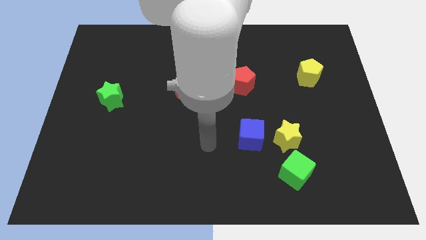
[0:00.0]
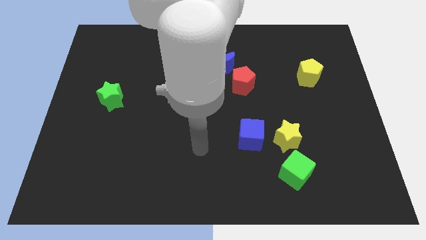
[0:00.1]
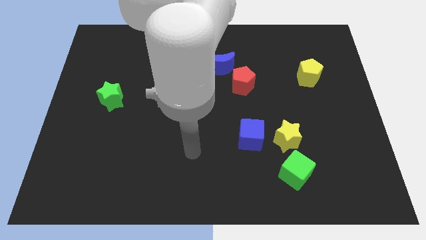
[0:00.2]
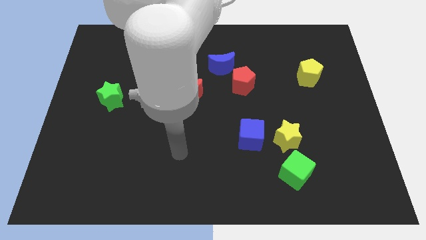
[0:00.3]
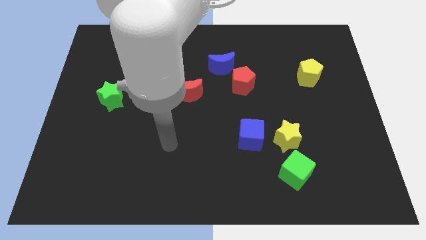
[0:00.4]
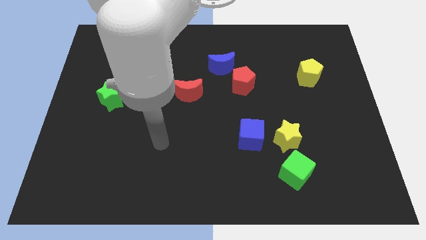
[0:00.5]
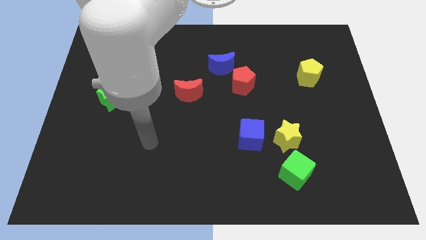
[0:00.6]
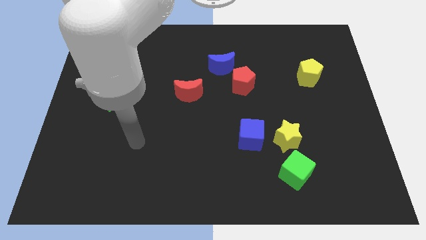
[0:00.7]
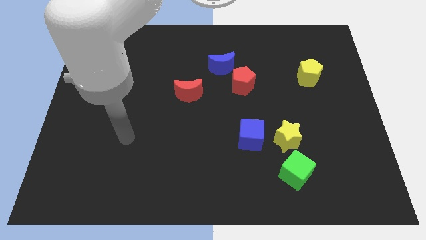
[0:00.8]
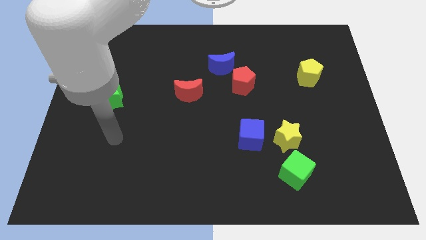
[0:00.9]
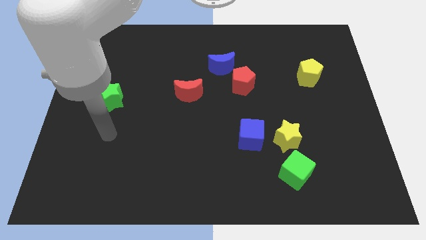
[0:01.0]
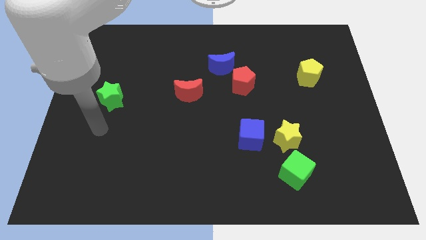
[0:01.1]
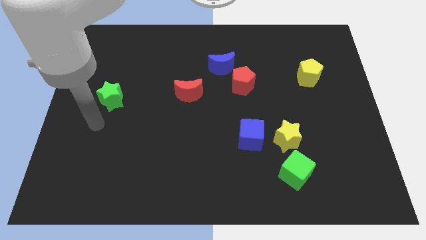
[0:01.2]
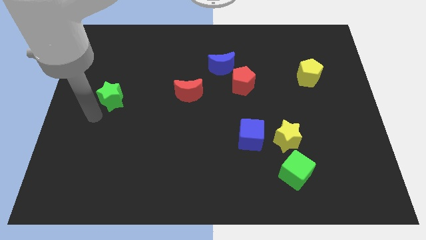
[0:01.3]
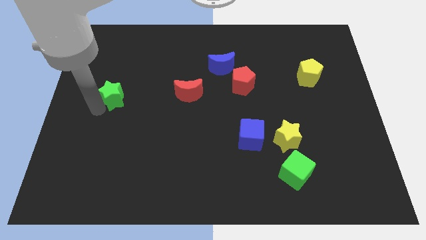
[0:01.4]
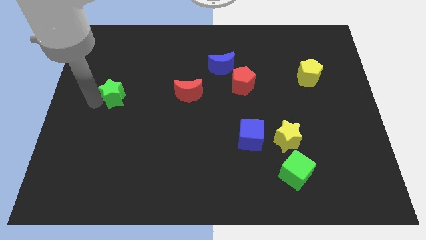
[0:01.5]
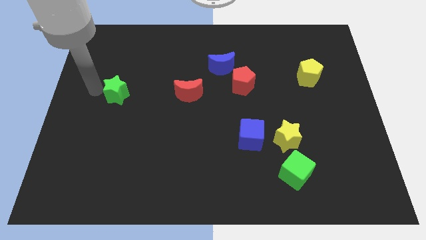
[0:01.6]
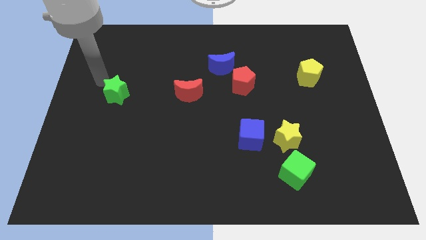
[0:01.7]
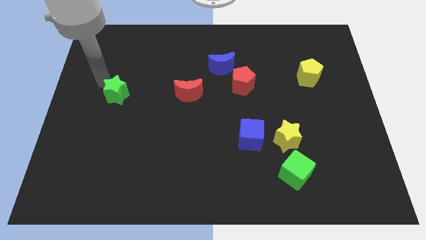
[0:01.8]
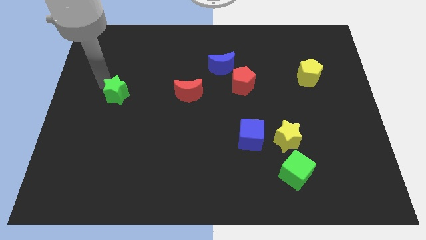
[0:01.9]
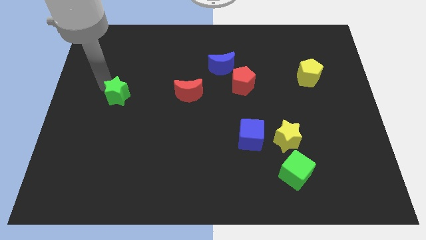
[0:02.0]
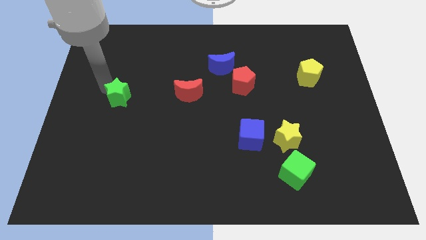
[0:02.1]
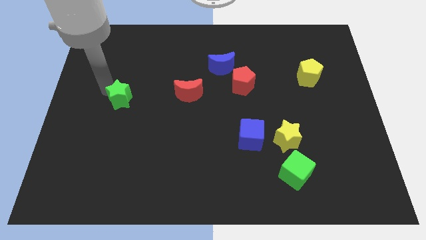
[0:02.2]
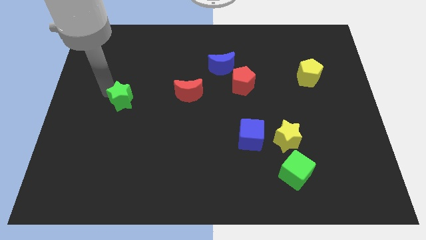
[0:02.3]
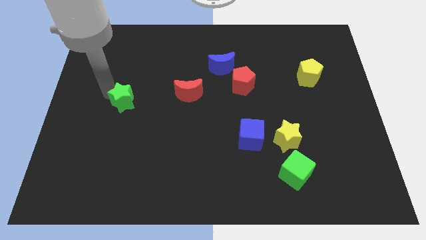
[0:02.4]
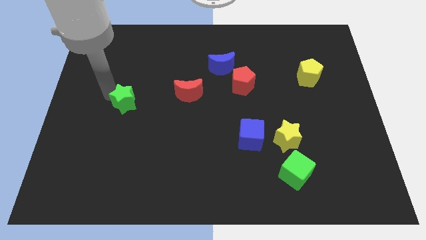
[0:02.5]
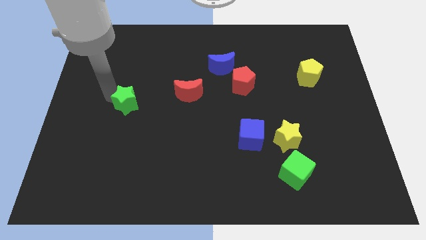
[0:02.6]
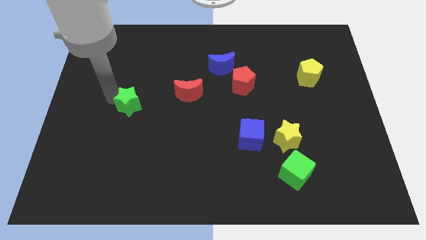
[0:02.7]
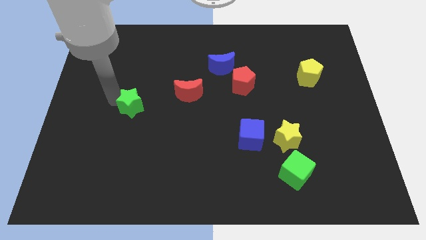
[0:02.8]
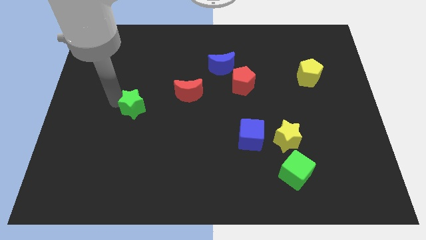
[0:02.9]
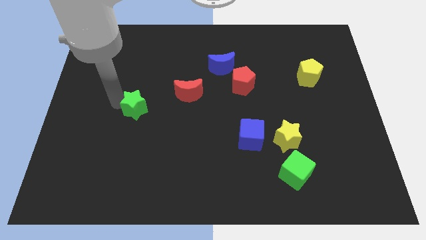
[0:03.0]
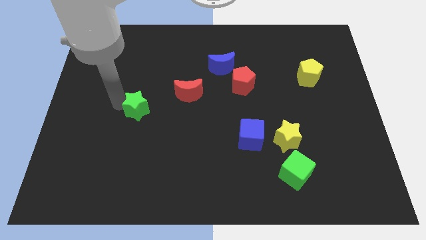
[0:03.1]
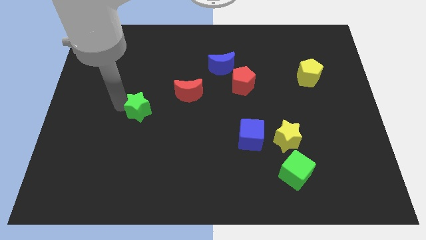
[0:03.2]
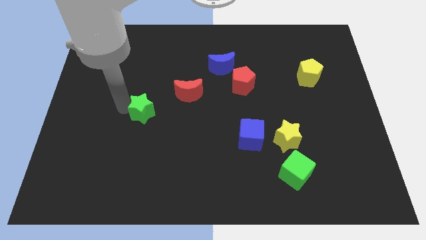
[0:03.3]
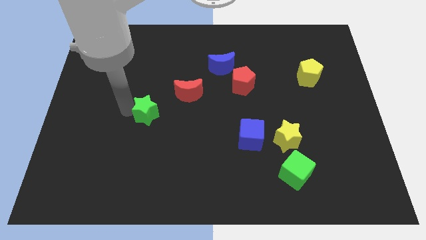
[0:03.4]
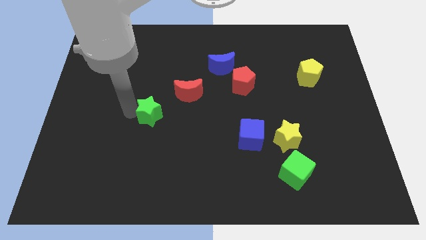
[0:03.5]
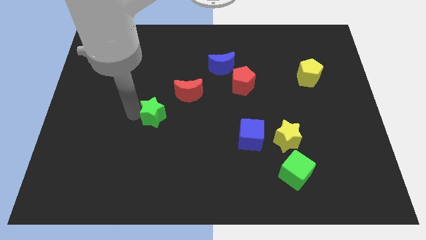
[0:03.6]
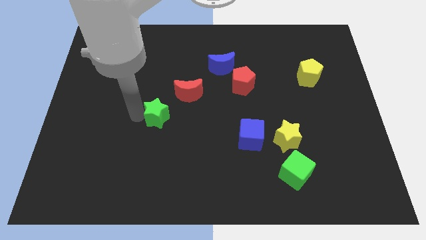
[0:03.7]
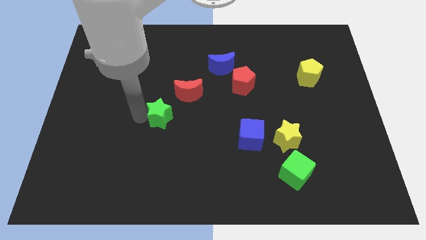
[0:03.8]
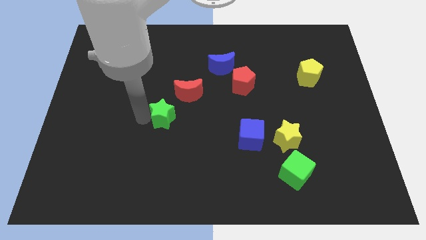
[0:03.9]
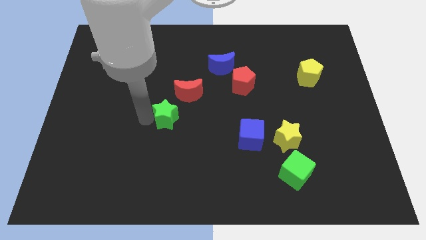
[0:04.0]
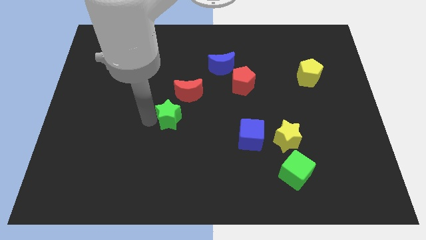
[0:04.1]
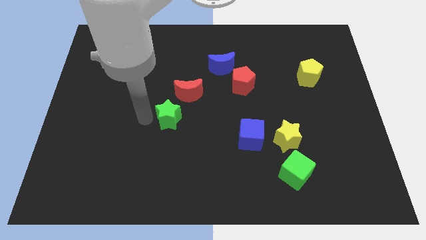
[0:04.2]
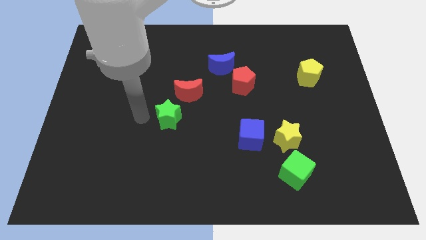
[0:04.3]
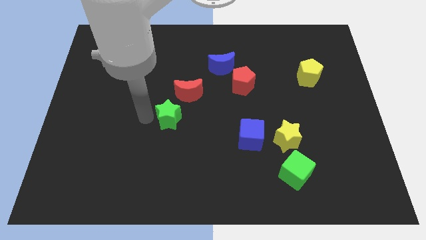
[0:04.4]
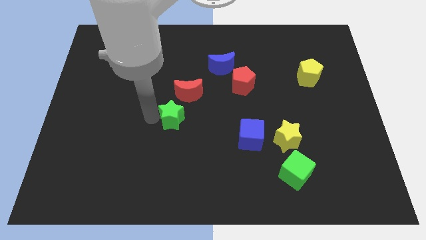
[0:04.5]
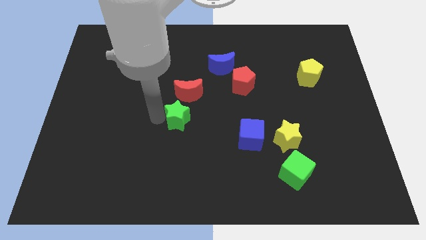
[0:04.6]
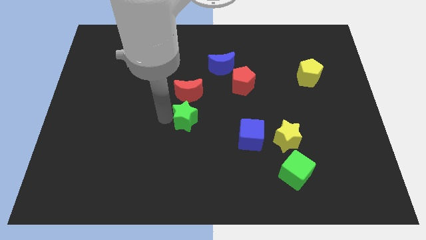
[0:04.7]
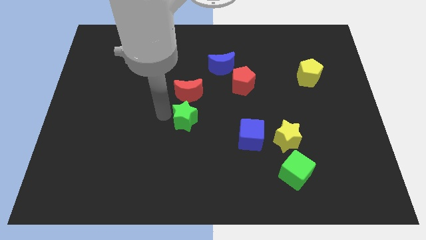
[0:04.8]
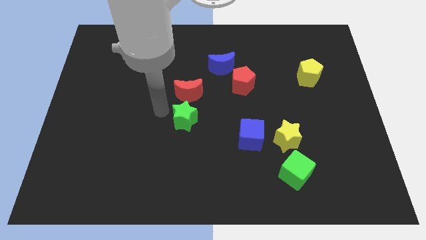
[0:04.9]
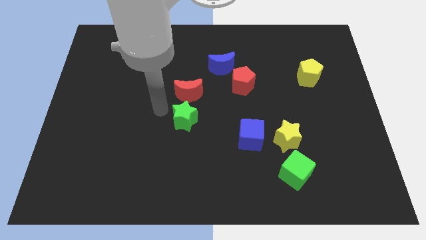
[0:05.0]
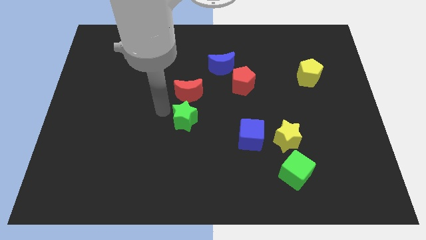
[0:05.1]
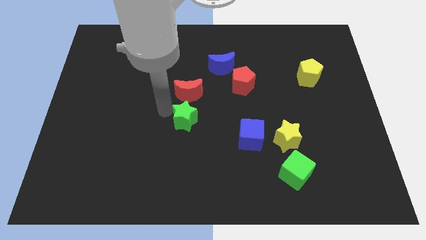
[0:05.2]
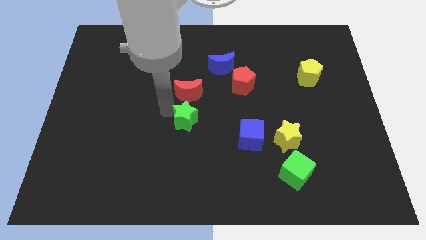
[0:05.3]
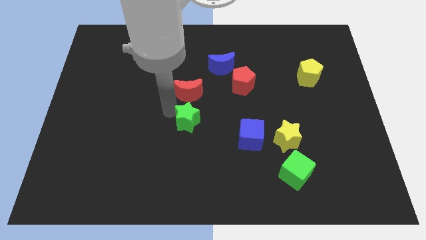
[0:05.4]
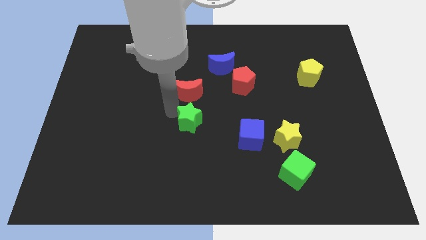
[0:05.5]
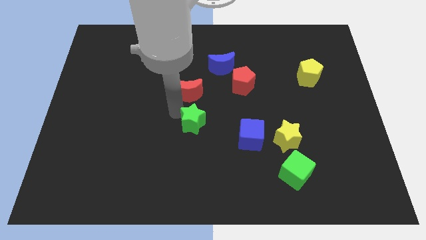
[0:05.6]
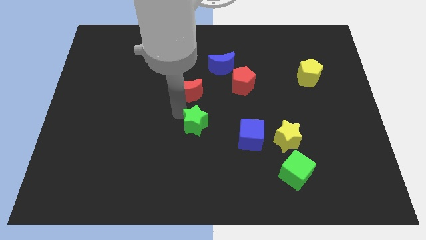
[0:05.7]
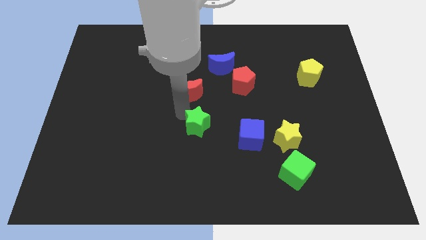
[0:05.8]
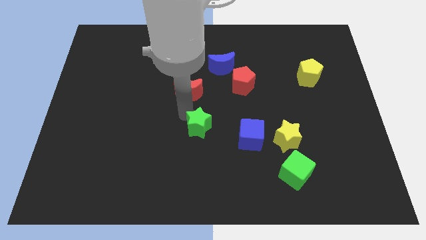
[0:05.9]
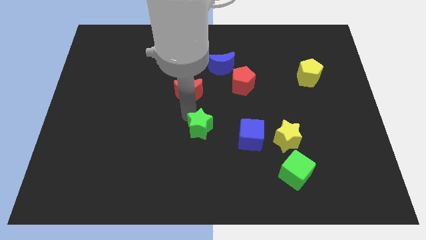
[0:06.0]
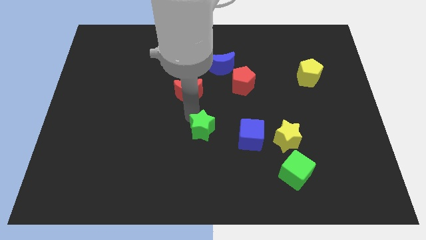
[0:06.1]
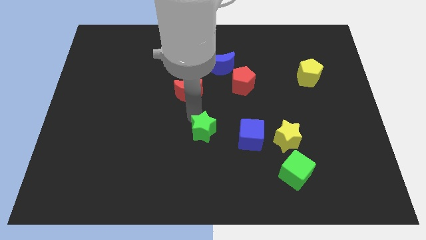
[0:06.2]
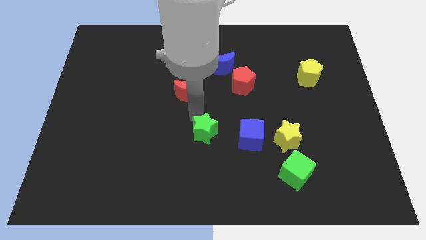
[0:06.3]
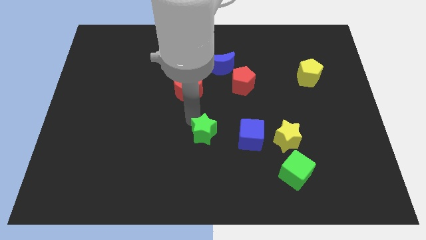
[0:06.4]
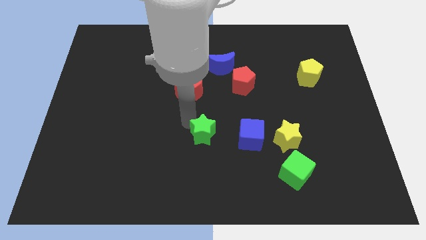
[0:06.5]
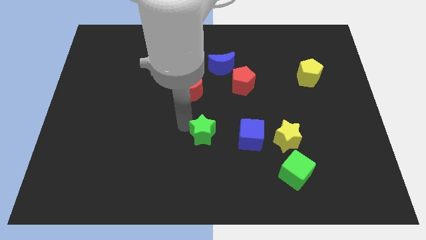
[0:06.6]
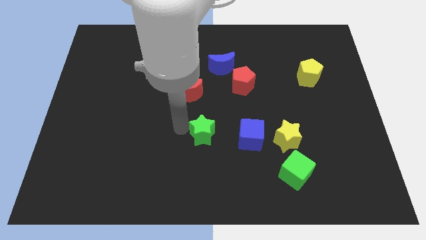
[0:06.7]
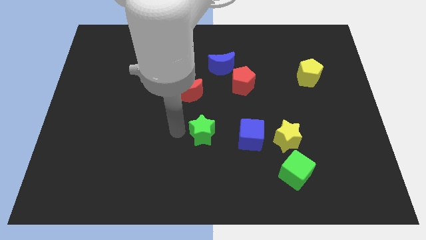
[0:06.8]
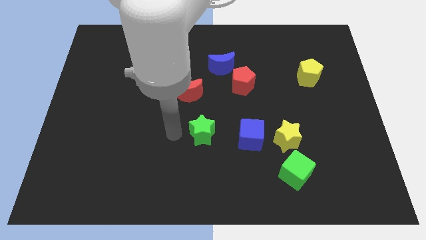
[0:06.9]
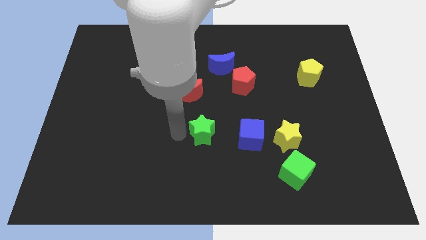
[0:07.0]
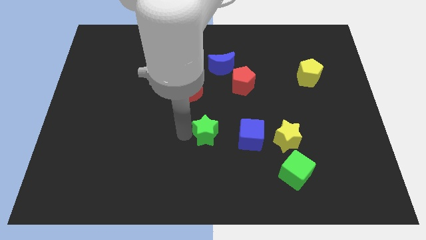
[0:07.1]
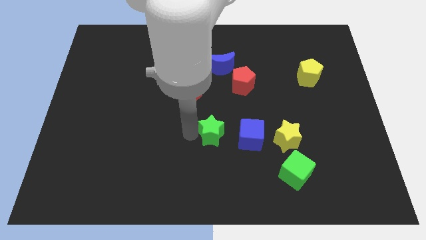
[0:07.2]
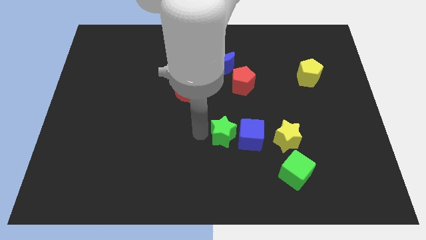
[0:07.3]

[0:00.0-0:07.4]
slide the green star next to the blue cube
